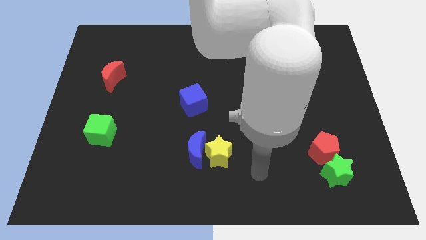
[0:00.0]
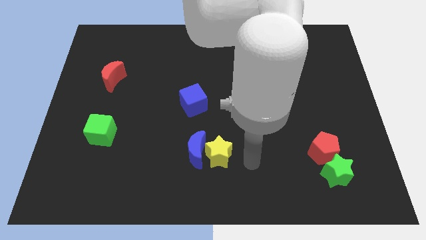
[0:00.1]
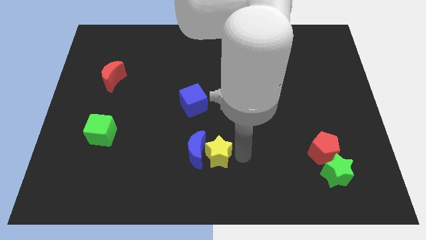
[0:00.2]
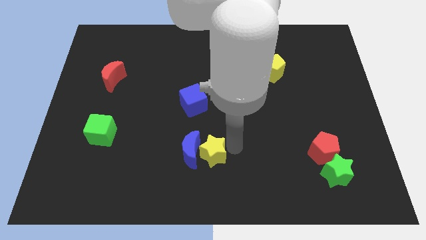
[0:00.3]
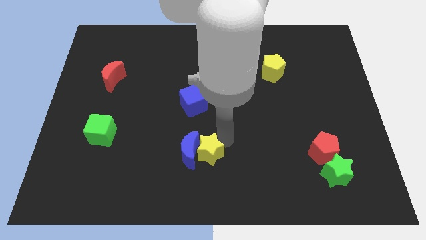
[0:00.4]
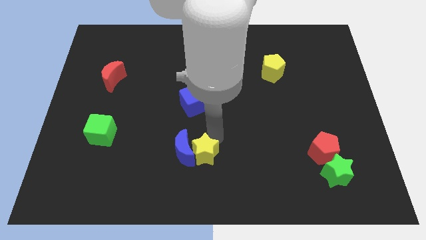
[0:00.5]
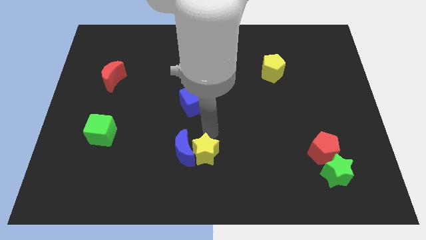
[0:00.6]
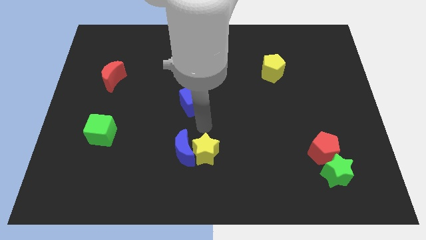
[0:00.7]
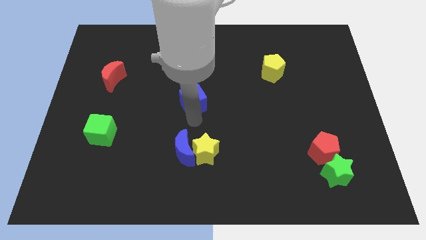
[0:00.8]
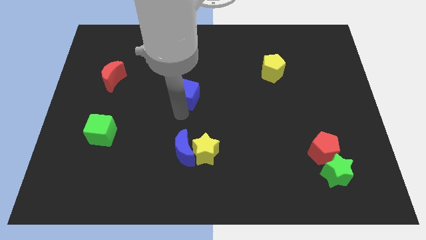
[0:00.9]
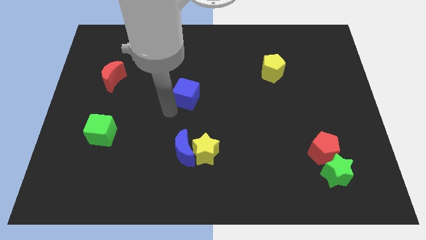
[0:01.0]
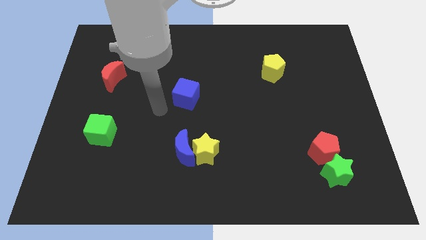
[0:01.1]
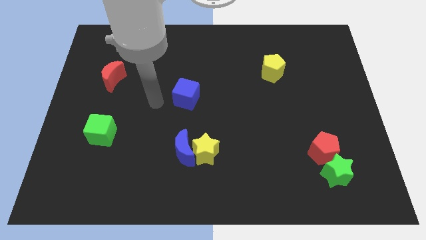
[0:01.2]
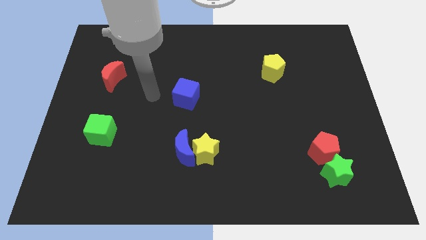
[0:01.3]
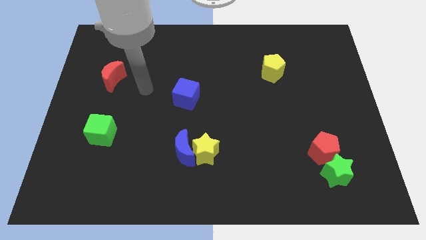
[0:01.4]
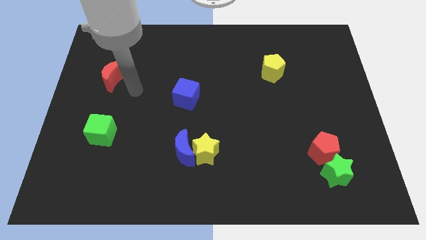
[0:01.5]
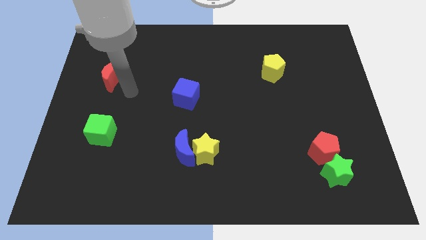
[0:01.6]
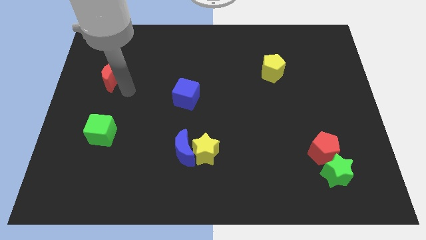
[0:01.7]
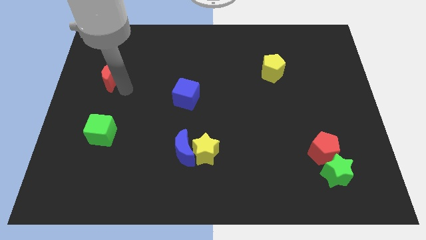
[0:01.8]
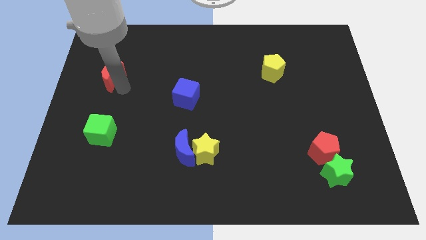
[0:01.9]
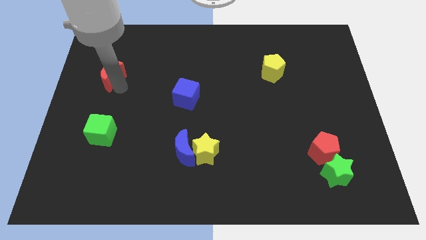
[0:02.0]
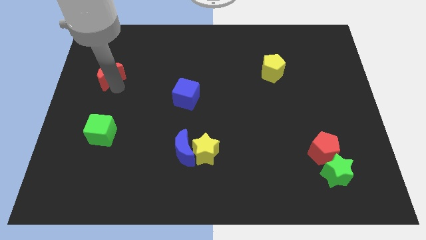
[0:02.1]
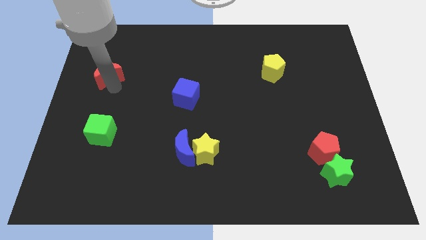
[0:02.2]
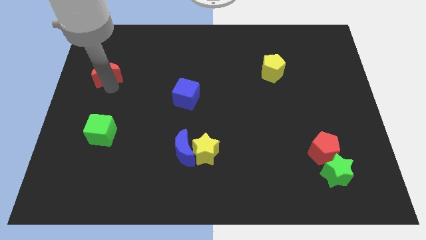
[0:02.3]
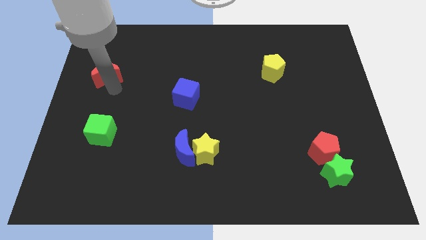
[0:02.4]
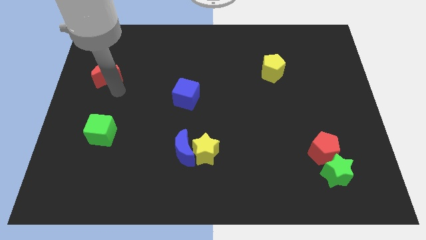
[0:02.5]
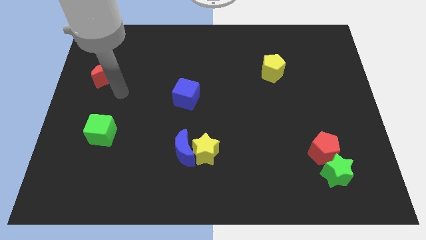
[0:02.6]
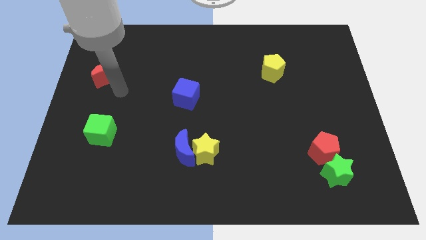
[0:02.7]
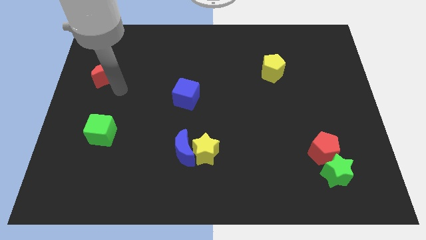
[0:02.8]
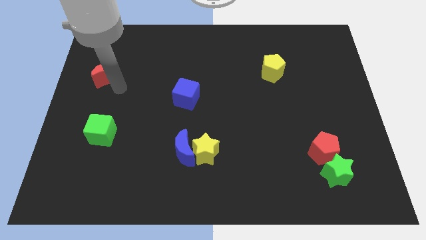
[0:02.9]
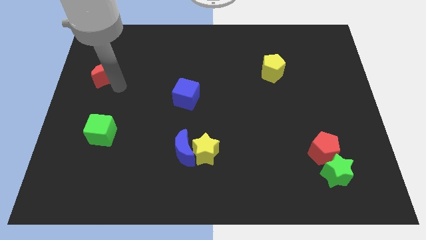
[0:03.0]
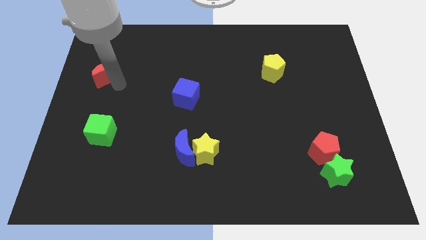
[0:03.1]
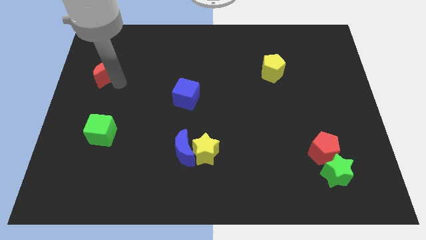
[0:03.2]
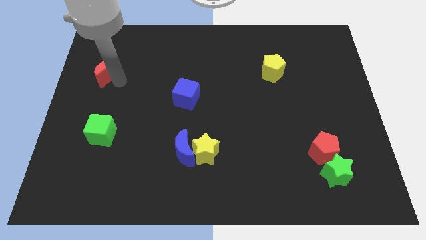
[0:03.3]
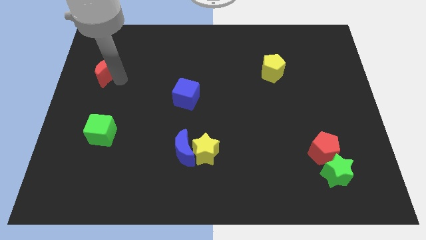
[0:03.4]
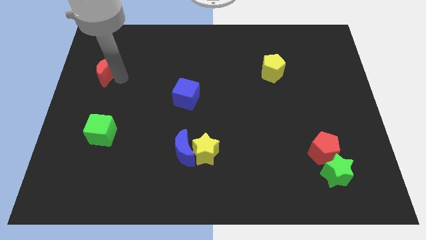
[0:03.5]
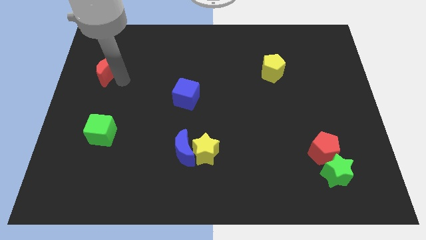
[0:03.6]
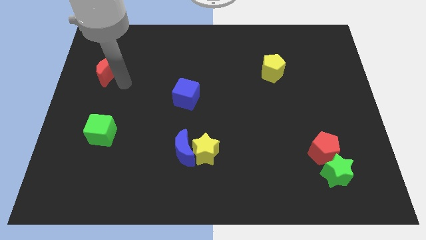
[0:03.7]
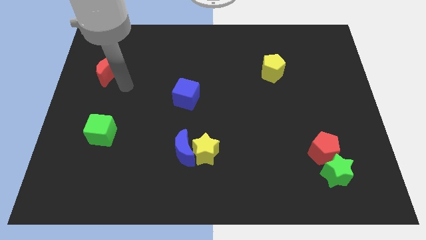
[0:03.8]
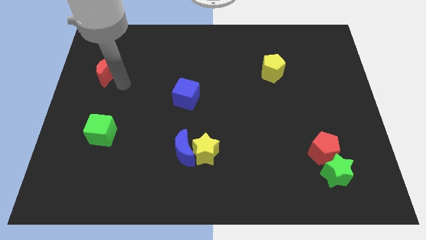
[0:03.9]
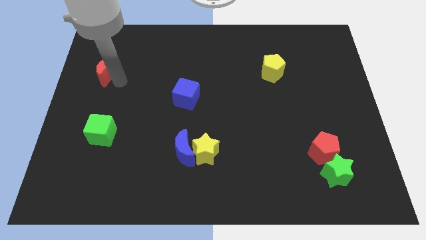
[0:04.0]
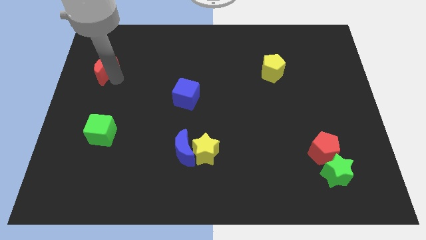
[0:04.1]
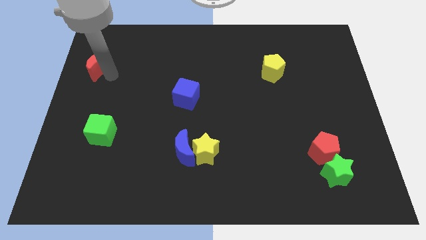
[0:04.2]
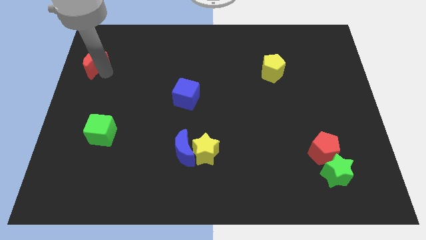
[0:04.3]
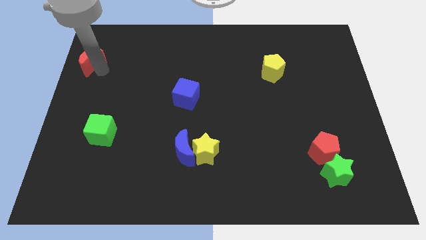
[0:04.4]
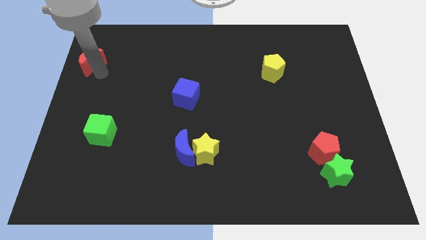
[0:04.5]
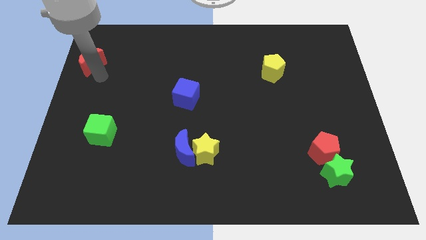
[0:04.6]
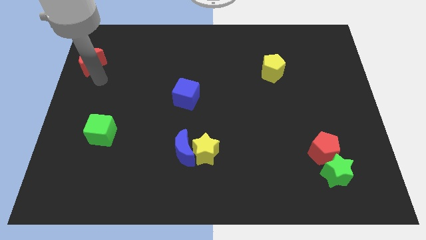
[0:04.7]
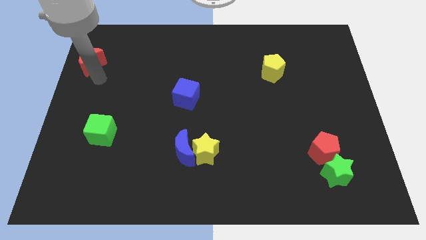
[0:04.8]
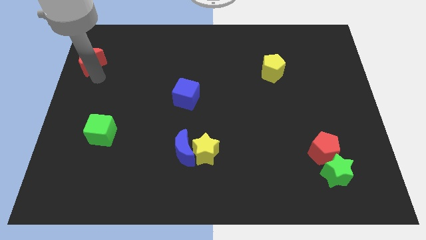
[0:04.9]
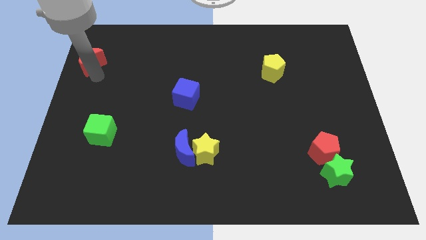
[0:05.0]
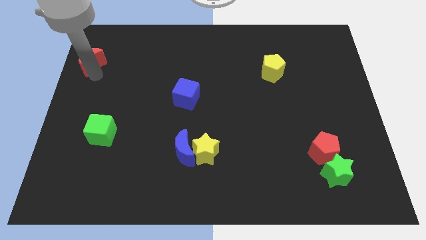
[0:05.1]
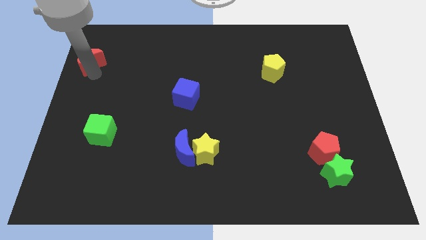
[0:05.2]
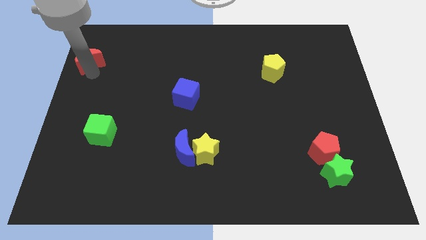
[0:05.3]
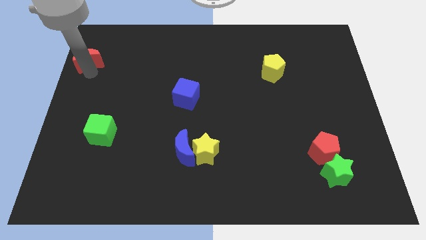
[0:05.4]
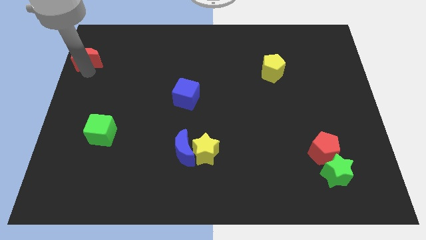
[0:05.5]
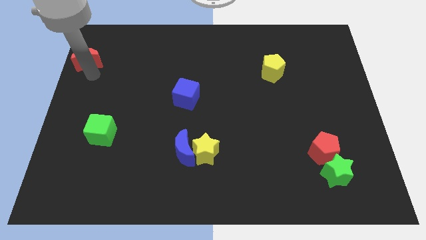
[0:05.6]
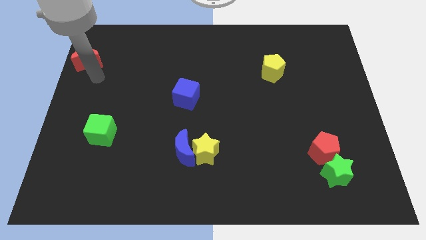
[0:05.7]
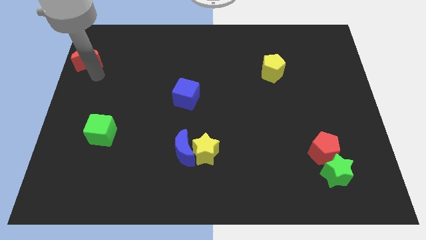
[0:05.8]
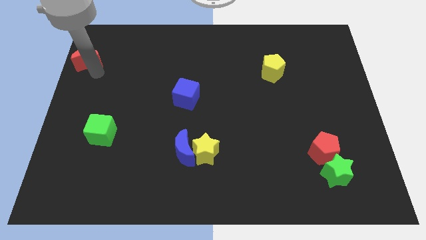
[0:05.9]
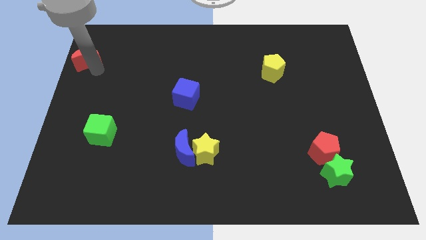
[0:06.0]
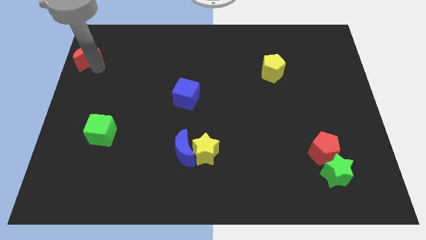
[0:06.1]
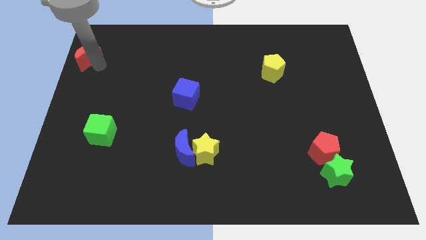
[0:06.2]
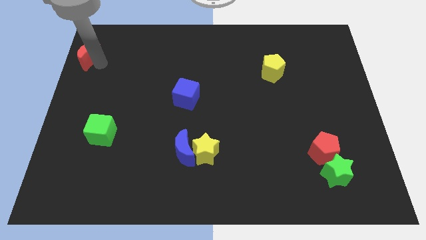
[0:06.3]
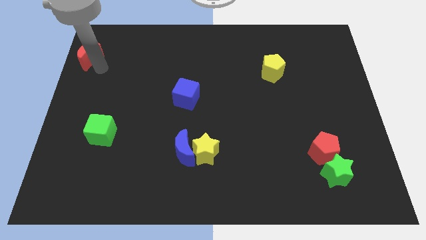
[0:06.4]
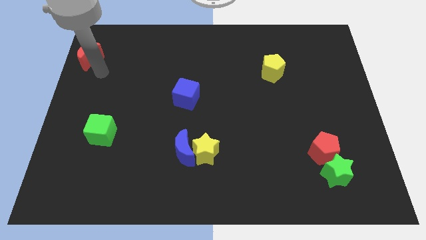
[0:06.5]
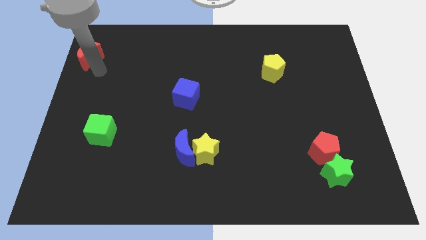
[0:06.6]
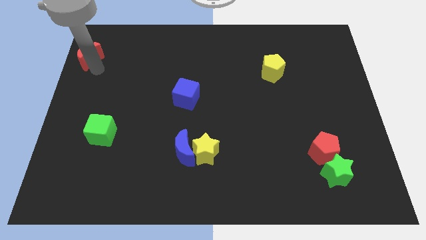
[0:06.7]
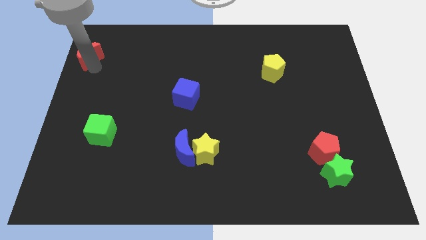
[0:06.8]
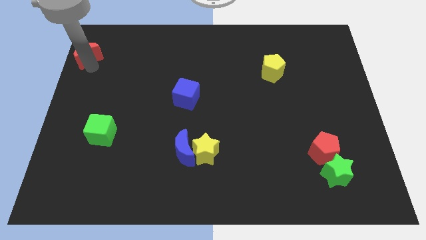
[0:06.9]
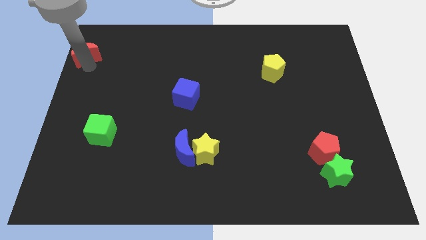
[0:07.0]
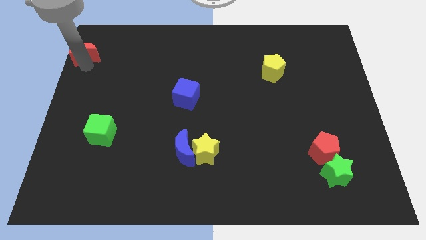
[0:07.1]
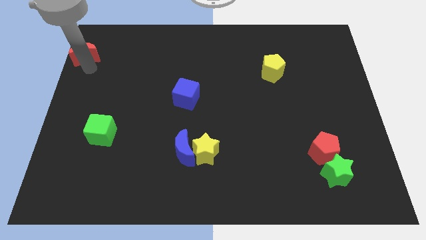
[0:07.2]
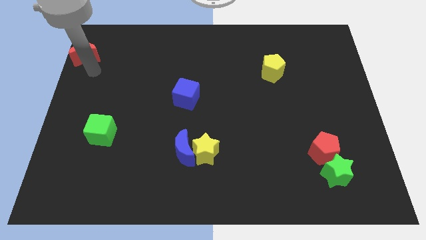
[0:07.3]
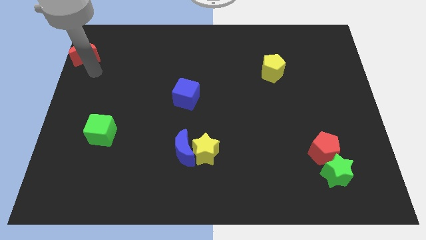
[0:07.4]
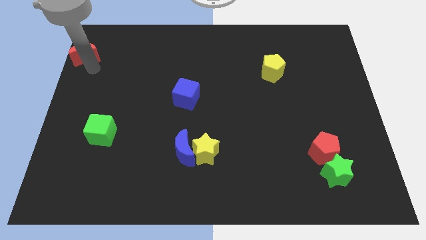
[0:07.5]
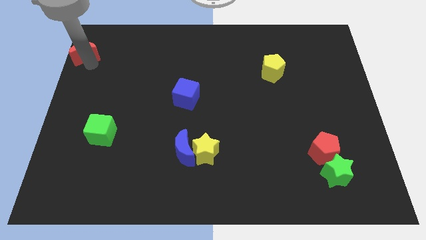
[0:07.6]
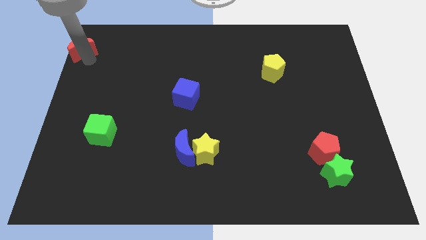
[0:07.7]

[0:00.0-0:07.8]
push the red moon to the top left
